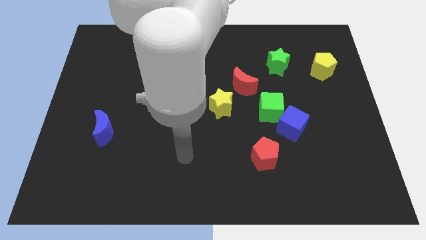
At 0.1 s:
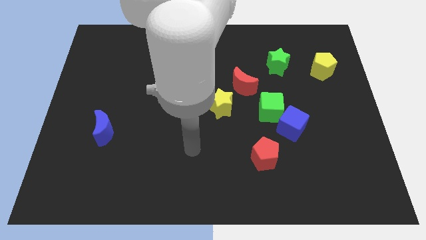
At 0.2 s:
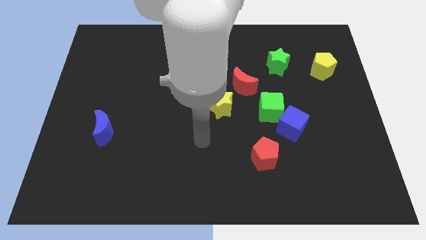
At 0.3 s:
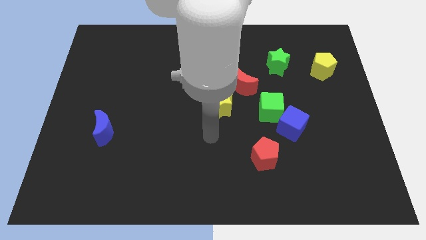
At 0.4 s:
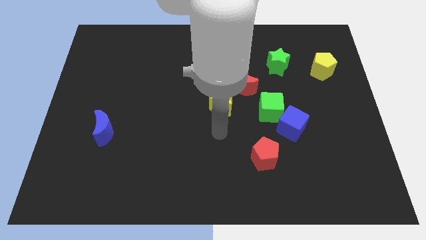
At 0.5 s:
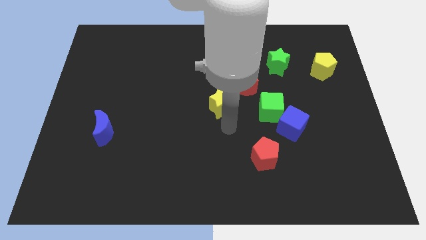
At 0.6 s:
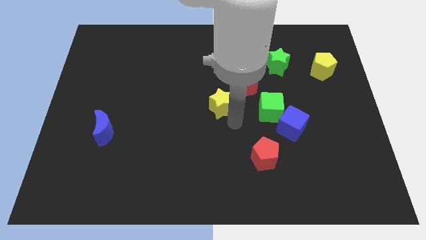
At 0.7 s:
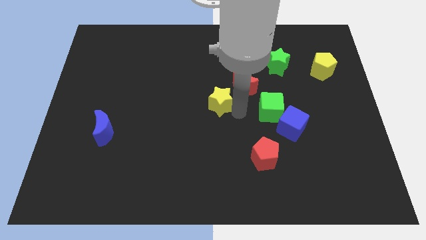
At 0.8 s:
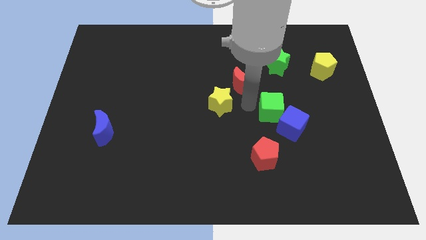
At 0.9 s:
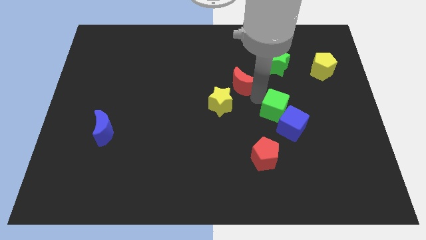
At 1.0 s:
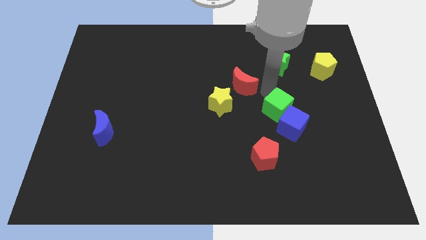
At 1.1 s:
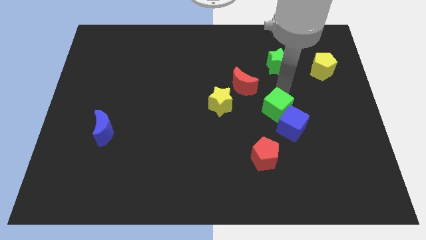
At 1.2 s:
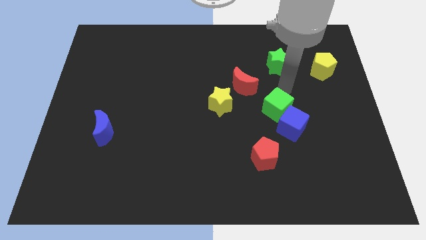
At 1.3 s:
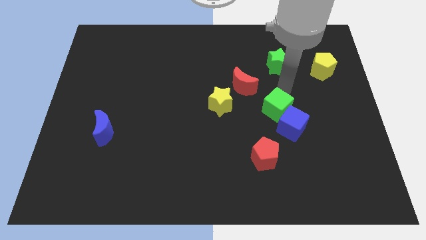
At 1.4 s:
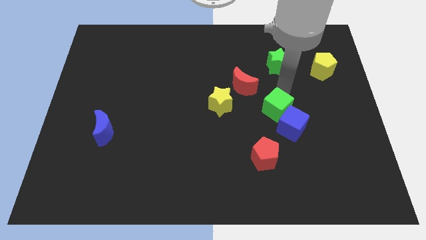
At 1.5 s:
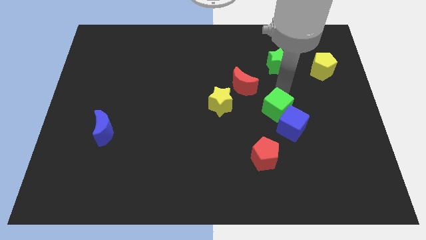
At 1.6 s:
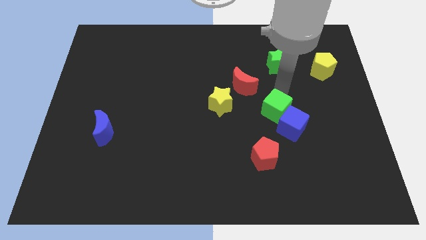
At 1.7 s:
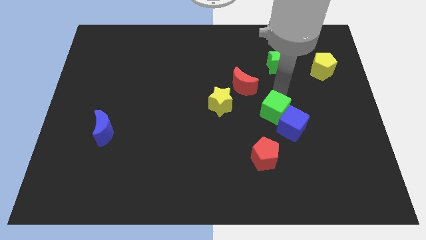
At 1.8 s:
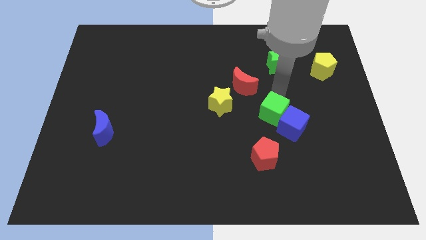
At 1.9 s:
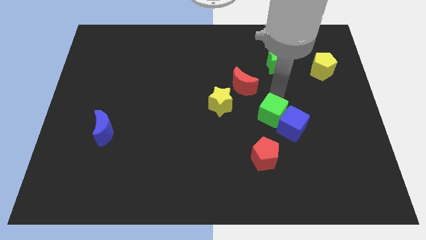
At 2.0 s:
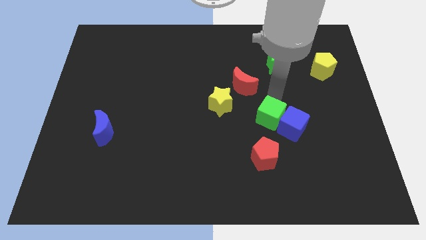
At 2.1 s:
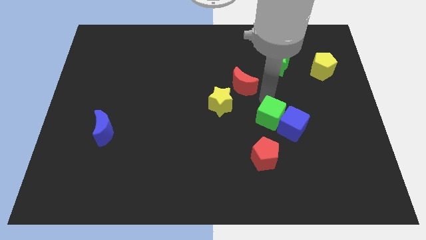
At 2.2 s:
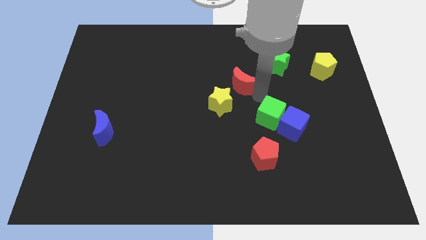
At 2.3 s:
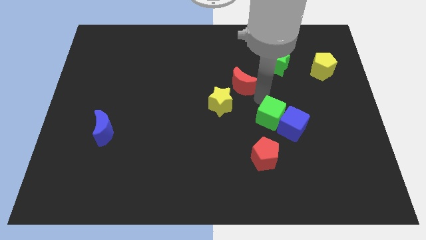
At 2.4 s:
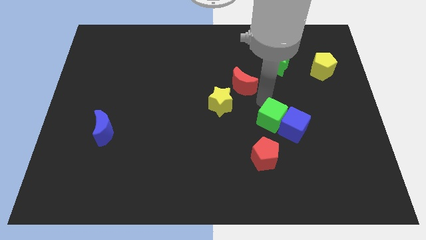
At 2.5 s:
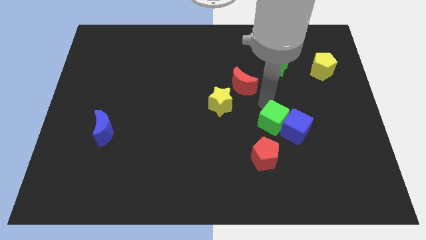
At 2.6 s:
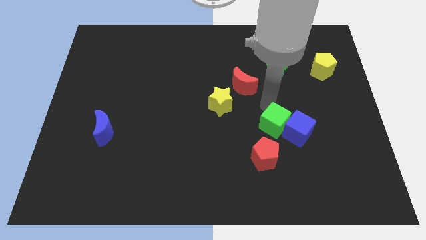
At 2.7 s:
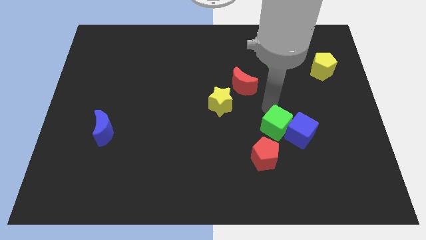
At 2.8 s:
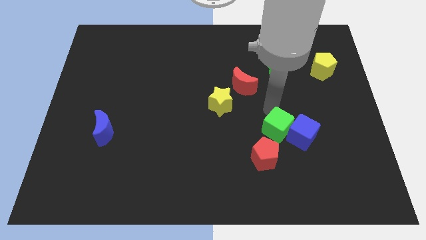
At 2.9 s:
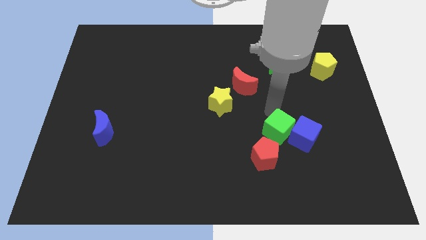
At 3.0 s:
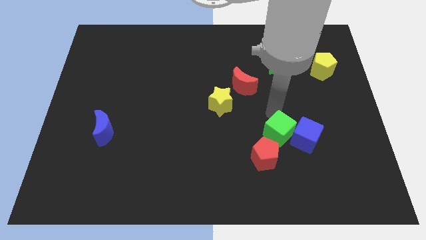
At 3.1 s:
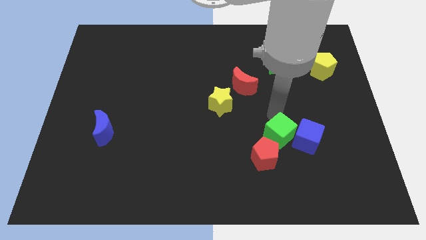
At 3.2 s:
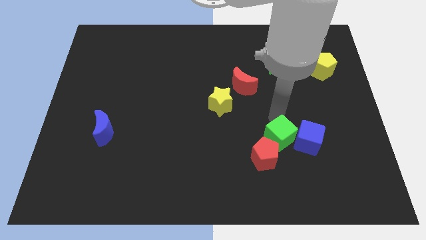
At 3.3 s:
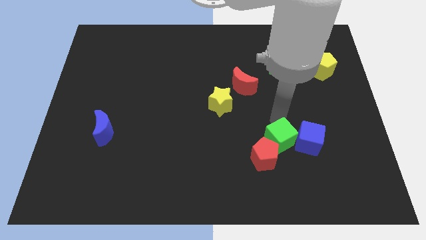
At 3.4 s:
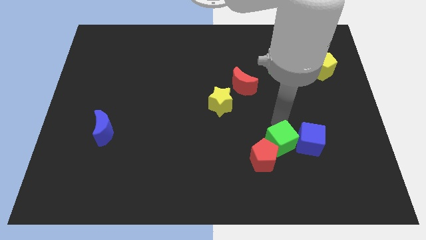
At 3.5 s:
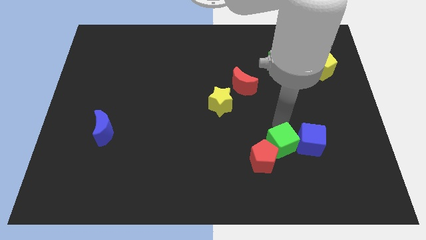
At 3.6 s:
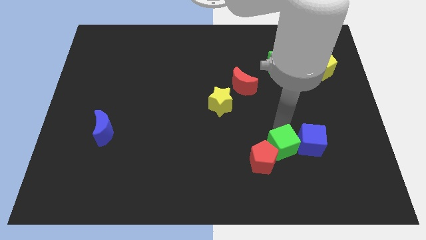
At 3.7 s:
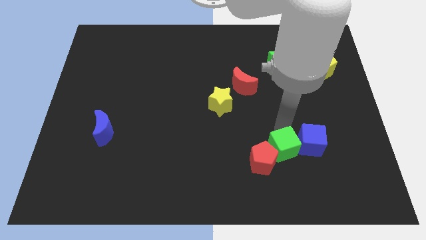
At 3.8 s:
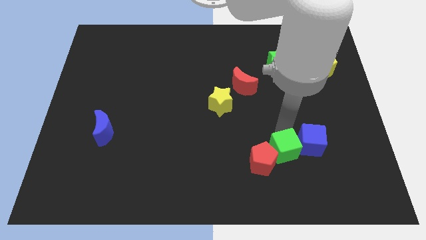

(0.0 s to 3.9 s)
separate the green cube from the blue cube and red moon

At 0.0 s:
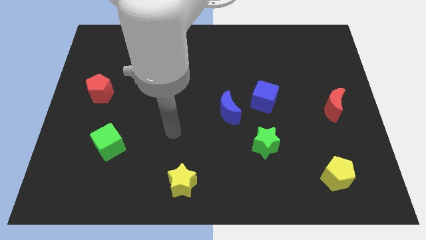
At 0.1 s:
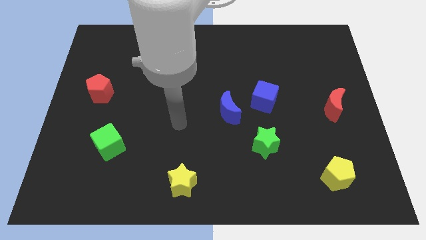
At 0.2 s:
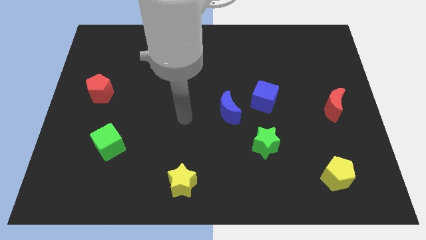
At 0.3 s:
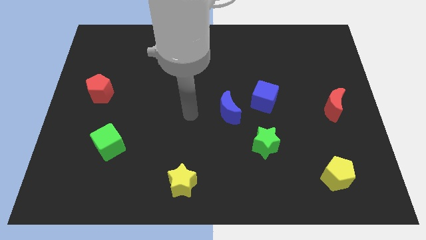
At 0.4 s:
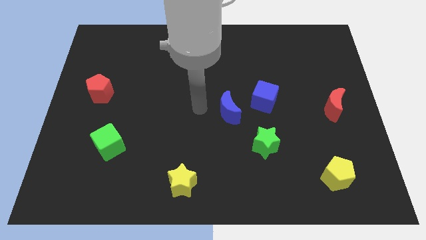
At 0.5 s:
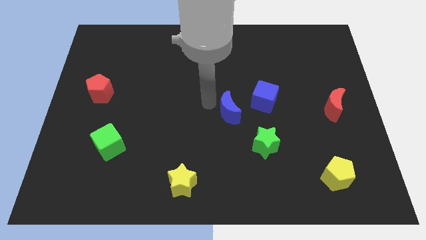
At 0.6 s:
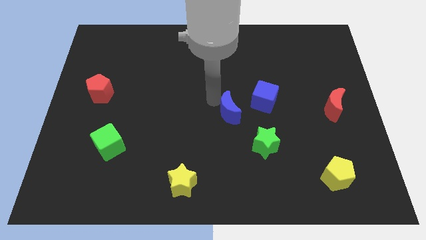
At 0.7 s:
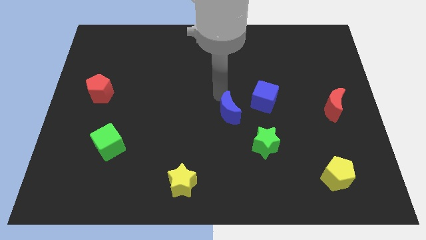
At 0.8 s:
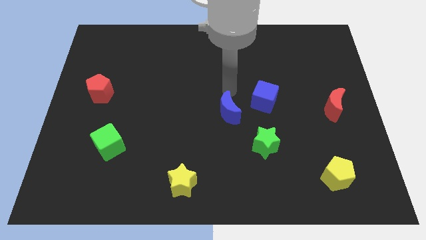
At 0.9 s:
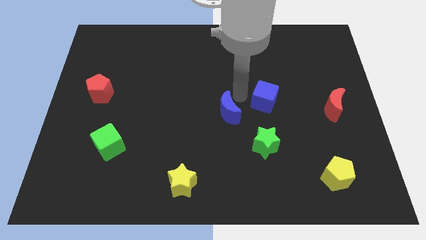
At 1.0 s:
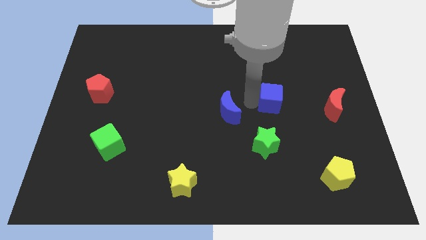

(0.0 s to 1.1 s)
move the blue moon away from the blue cube

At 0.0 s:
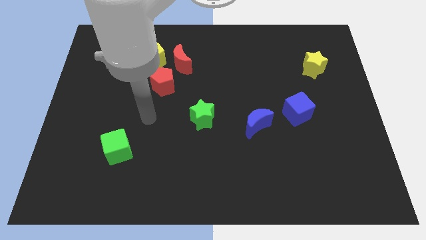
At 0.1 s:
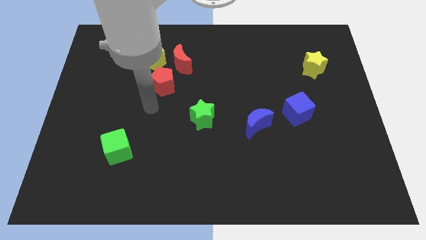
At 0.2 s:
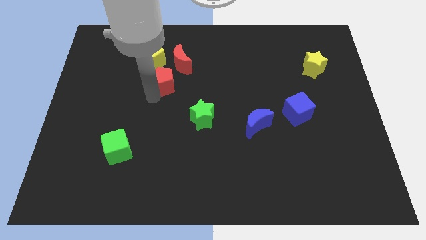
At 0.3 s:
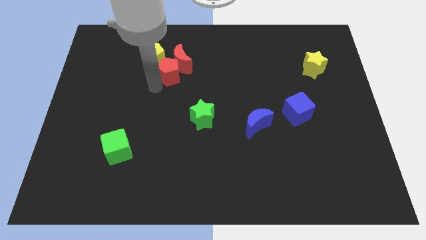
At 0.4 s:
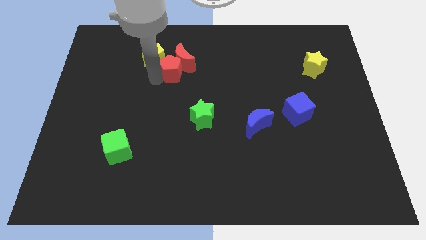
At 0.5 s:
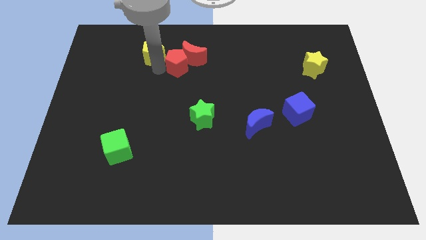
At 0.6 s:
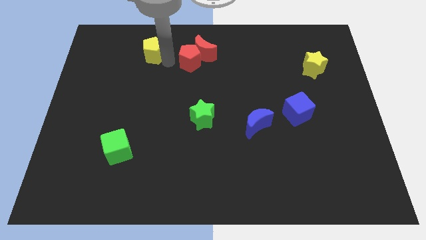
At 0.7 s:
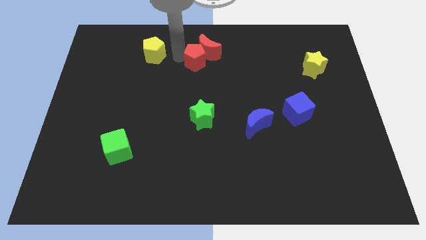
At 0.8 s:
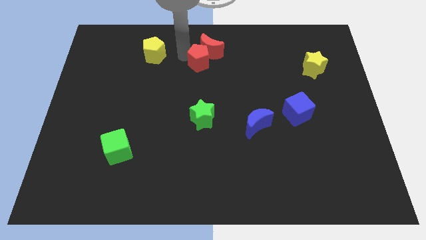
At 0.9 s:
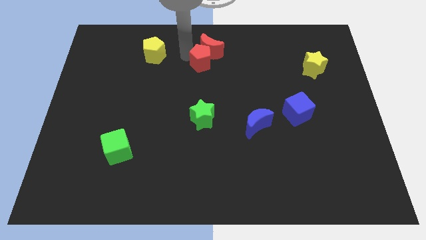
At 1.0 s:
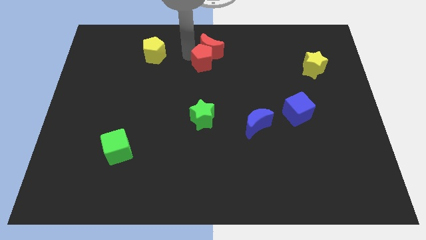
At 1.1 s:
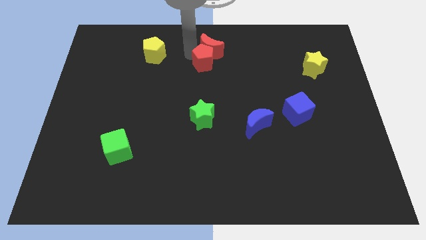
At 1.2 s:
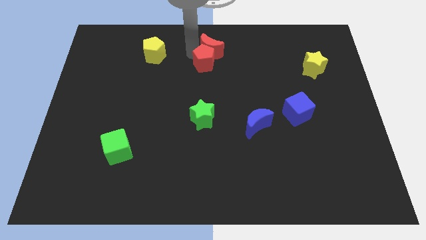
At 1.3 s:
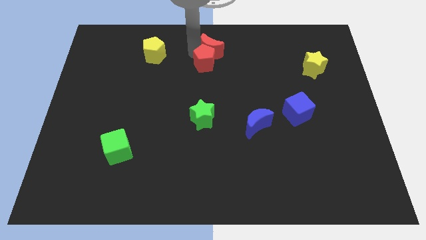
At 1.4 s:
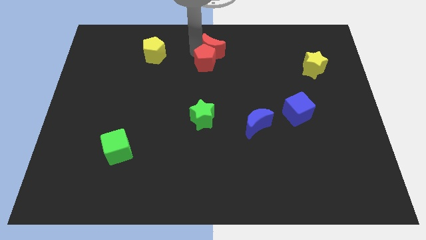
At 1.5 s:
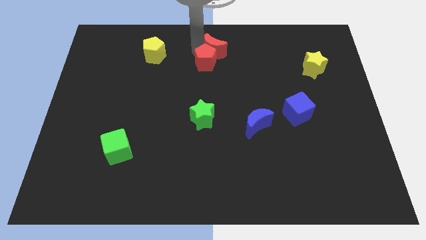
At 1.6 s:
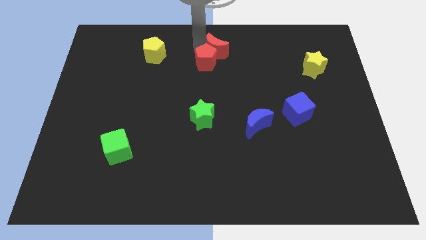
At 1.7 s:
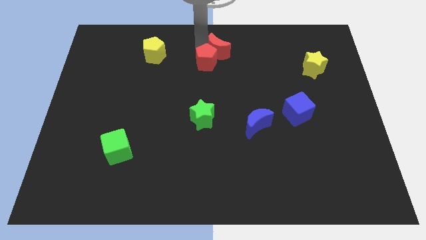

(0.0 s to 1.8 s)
separate the red moon from the yellow pentagon and red pentagon

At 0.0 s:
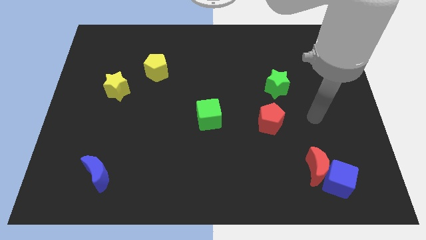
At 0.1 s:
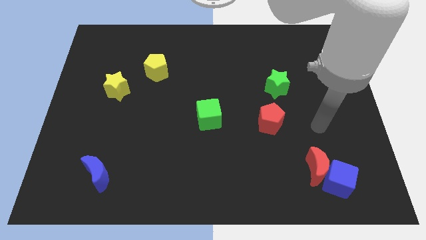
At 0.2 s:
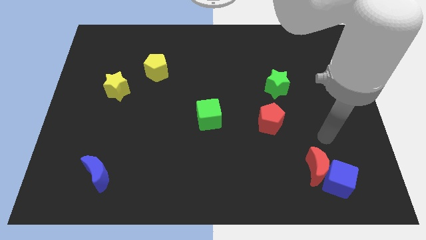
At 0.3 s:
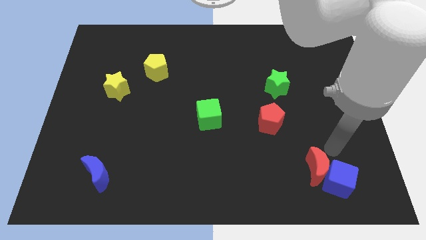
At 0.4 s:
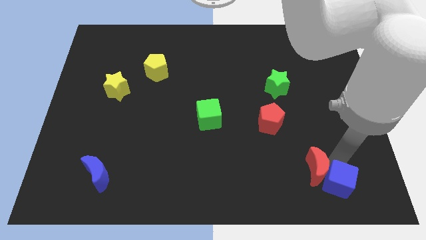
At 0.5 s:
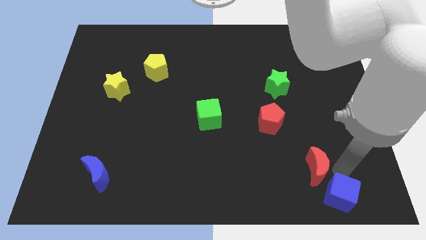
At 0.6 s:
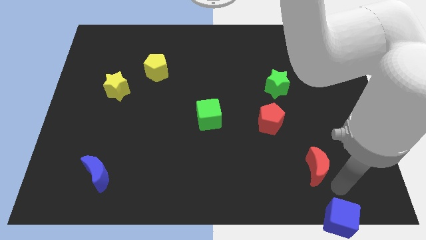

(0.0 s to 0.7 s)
pull the red moon apart from the blue cube

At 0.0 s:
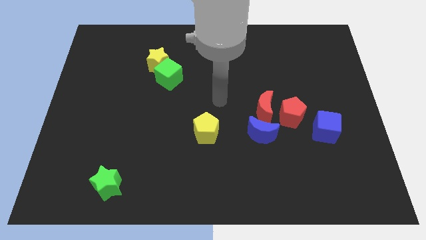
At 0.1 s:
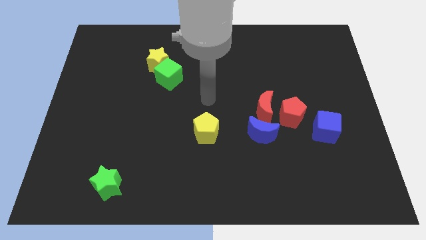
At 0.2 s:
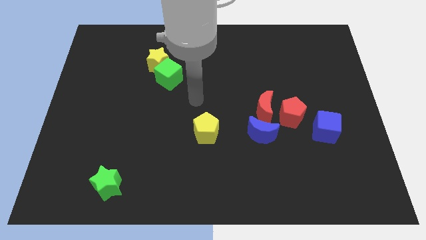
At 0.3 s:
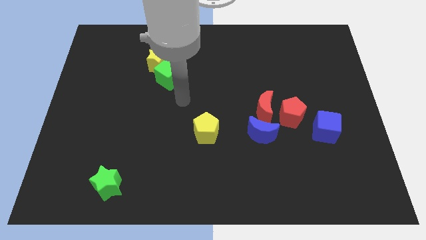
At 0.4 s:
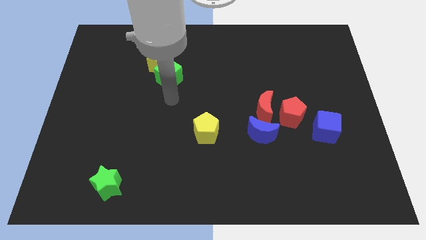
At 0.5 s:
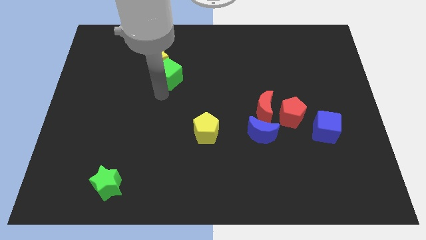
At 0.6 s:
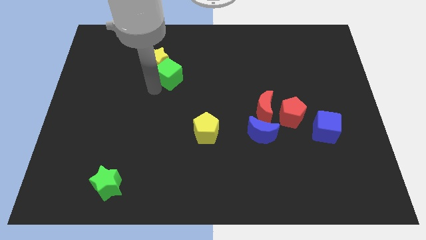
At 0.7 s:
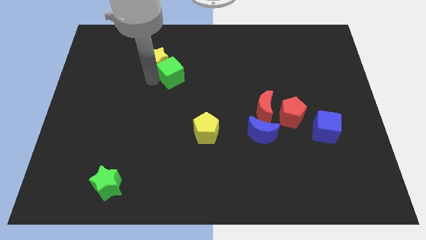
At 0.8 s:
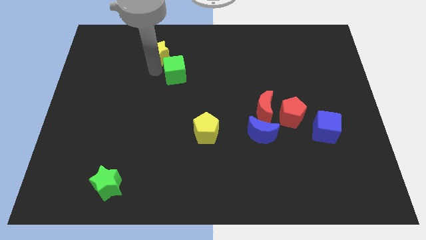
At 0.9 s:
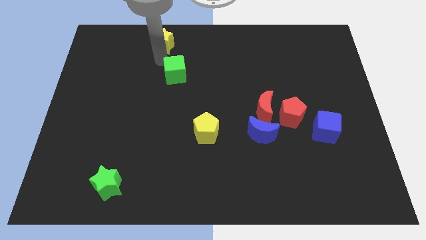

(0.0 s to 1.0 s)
separate the green cube from the yellow star

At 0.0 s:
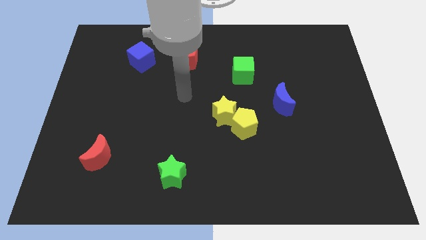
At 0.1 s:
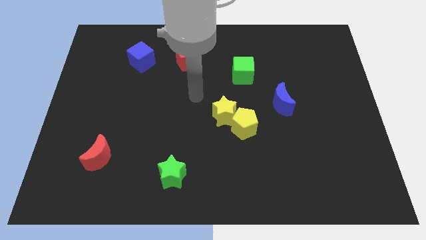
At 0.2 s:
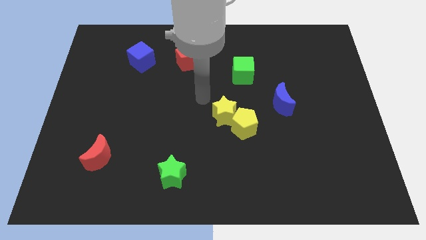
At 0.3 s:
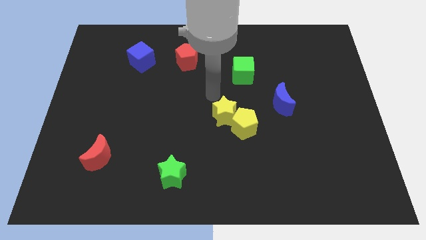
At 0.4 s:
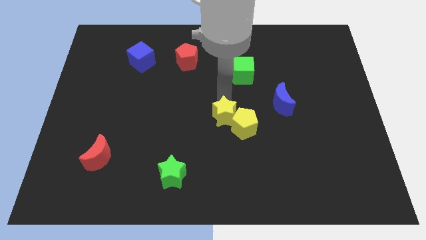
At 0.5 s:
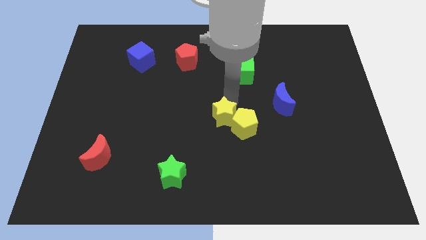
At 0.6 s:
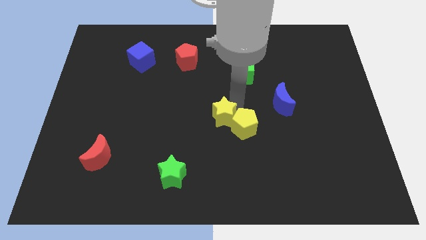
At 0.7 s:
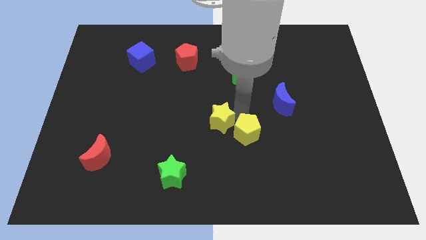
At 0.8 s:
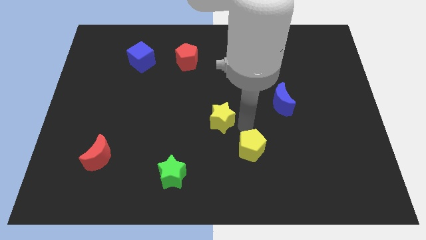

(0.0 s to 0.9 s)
separate the yellow star from the yellow pentagon
